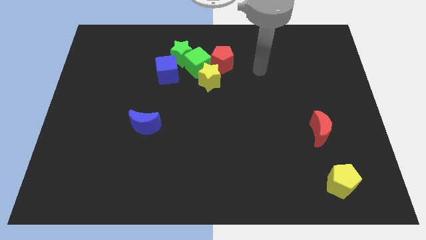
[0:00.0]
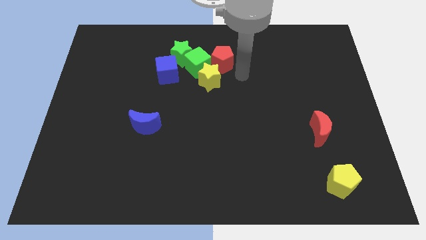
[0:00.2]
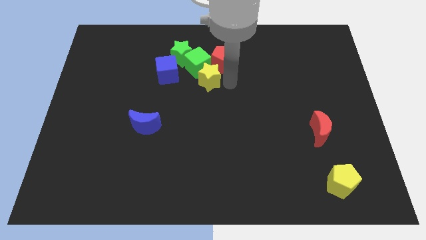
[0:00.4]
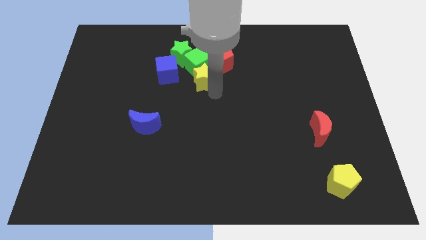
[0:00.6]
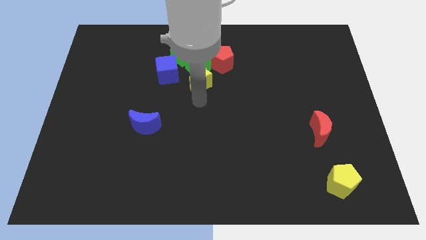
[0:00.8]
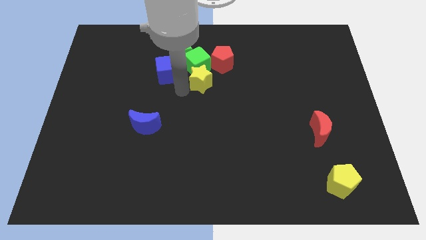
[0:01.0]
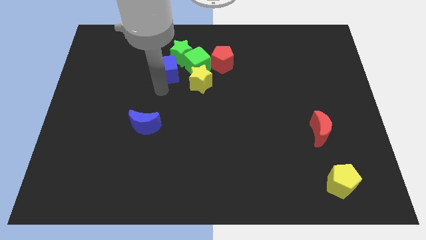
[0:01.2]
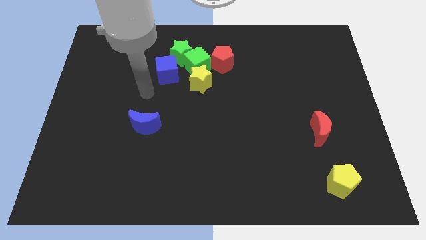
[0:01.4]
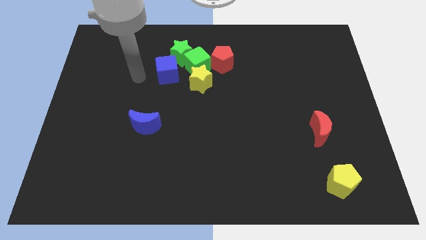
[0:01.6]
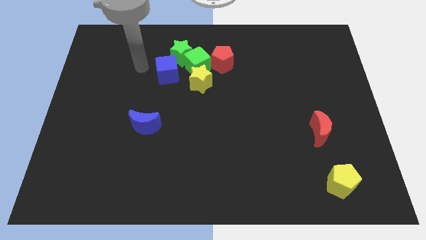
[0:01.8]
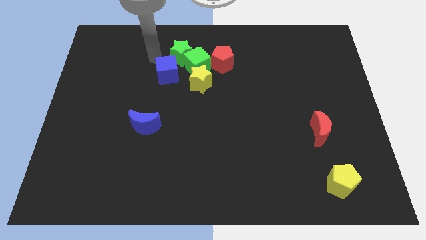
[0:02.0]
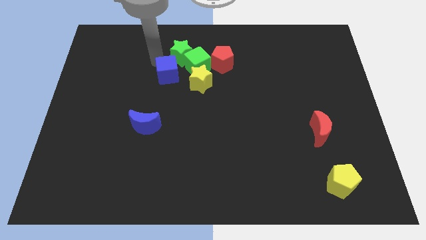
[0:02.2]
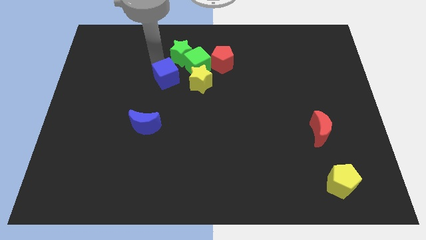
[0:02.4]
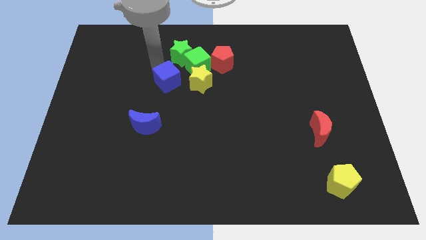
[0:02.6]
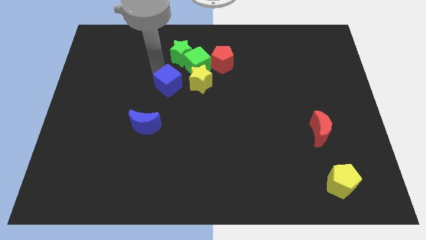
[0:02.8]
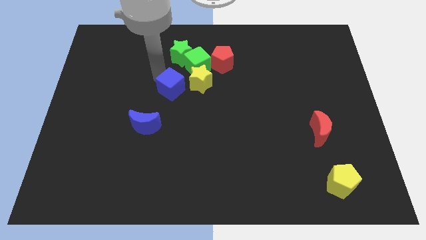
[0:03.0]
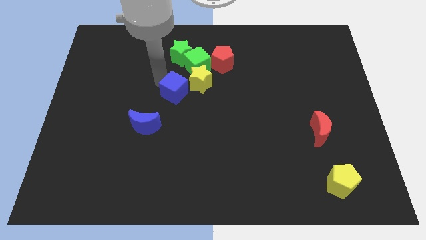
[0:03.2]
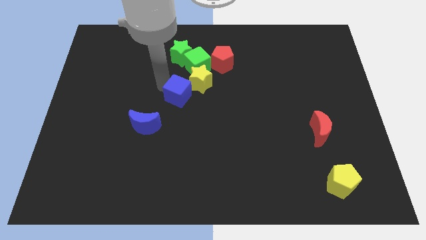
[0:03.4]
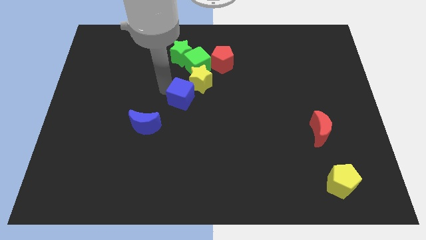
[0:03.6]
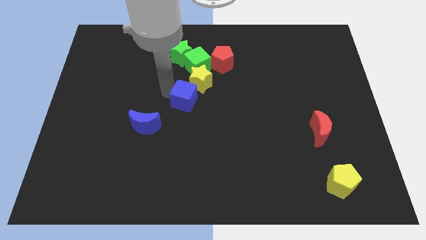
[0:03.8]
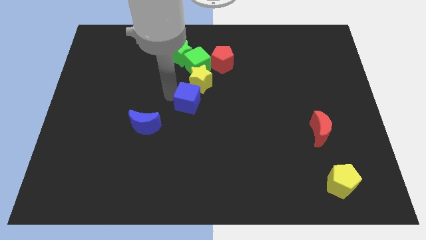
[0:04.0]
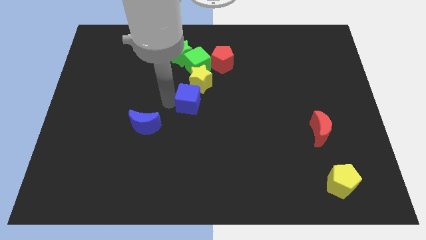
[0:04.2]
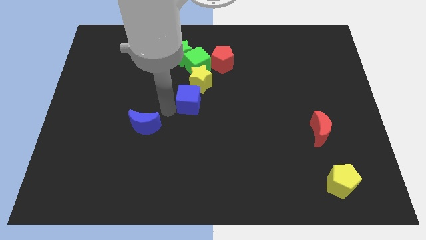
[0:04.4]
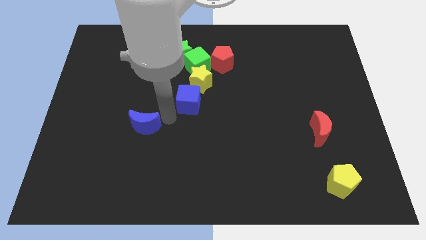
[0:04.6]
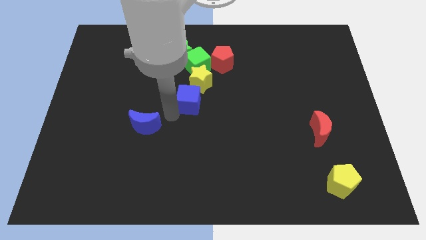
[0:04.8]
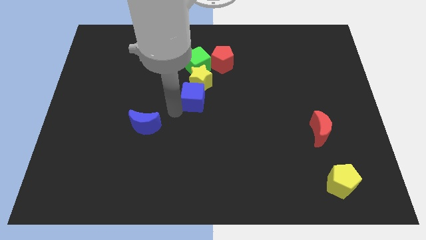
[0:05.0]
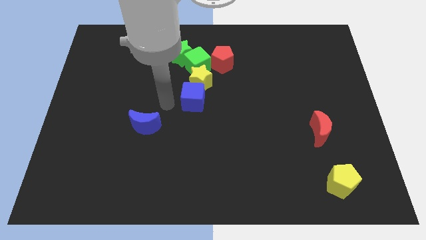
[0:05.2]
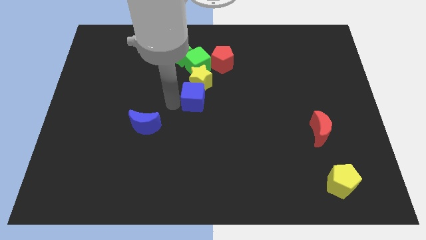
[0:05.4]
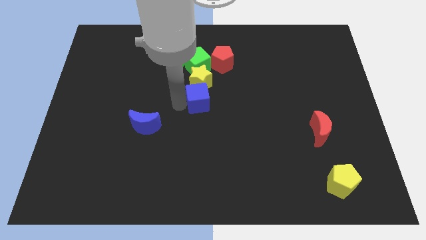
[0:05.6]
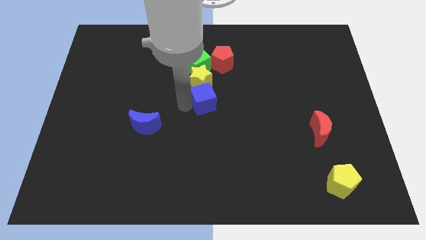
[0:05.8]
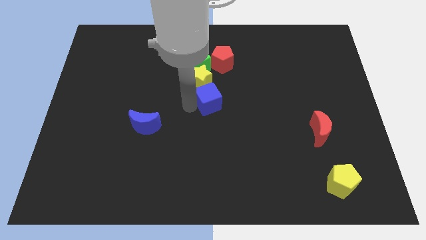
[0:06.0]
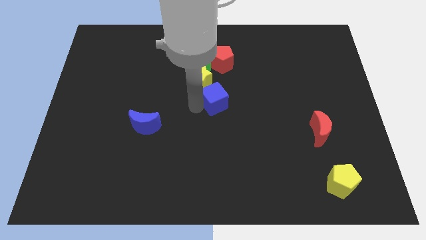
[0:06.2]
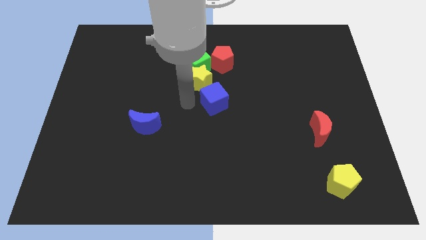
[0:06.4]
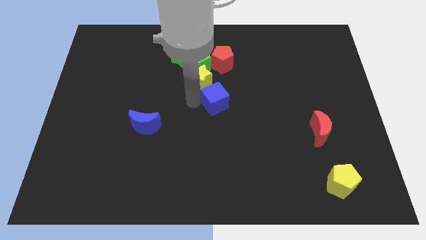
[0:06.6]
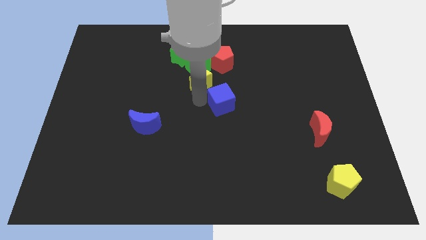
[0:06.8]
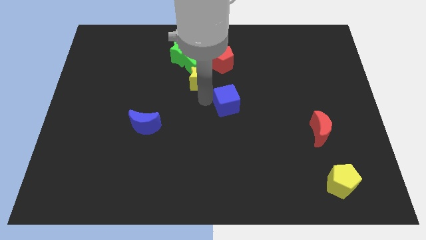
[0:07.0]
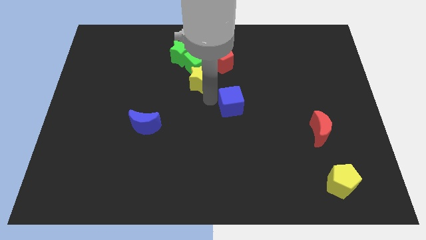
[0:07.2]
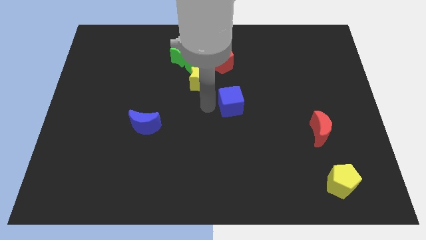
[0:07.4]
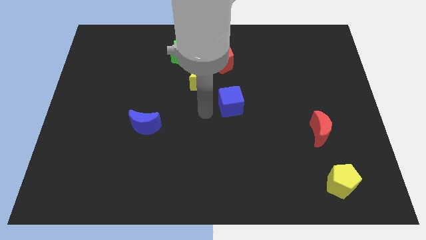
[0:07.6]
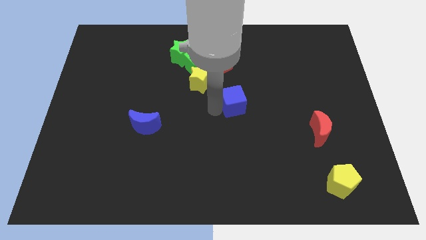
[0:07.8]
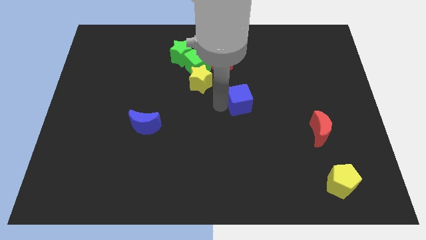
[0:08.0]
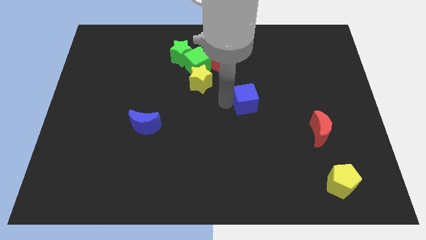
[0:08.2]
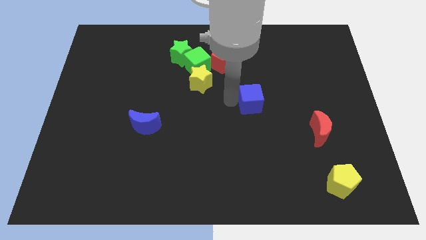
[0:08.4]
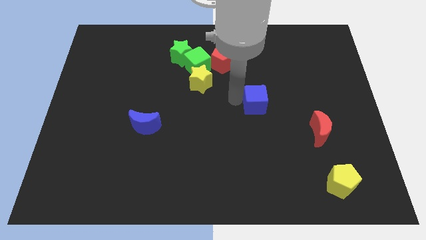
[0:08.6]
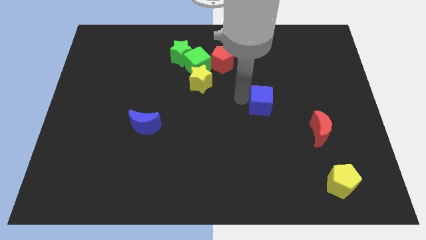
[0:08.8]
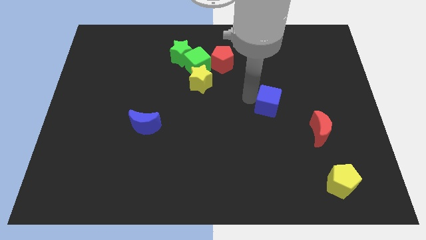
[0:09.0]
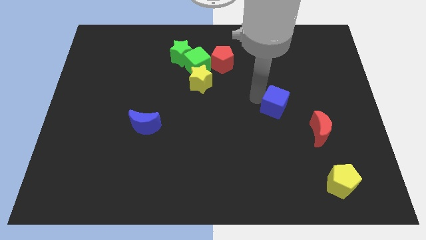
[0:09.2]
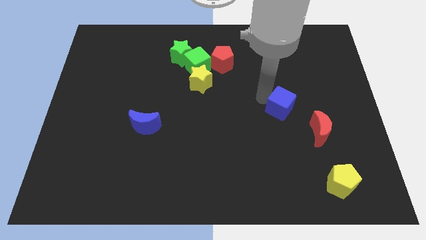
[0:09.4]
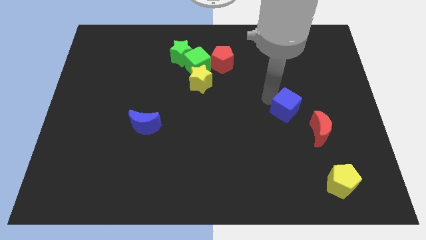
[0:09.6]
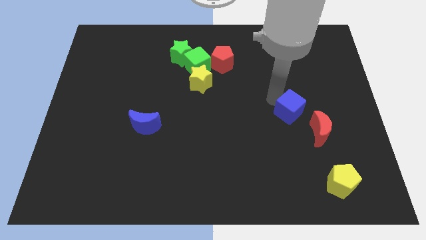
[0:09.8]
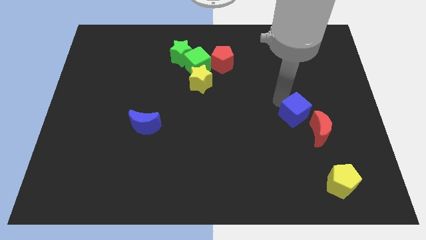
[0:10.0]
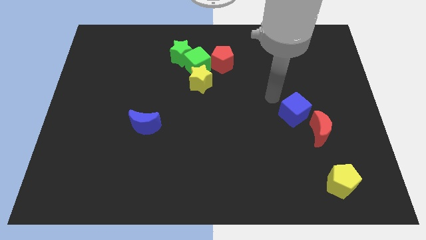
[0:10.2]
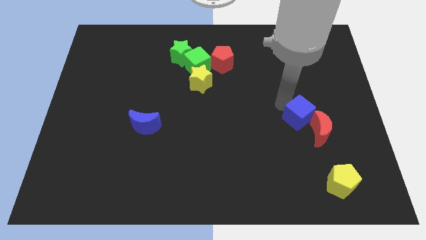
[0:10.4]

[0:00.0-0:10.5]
push the blue cube to the red moon

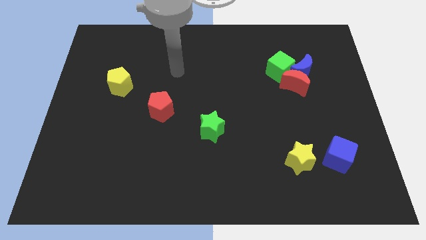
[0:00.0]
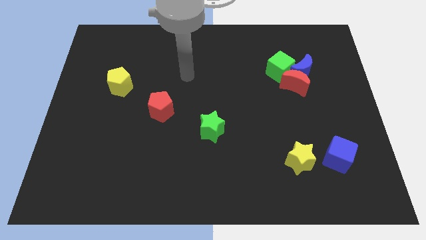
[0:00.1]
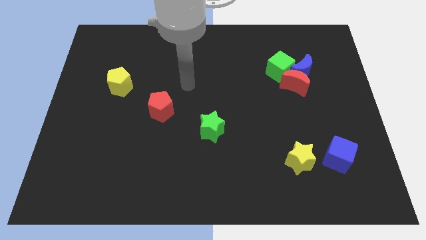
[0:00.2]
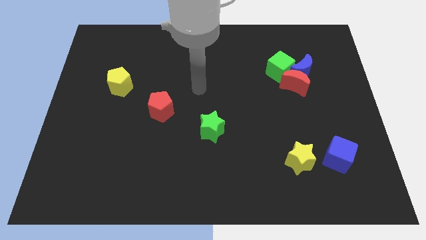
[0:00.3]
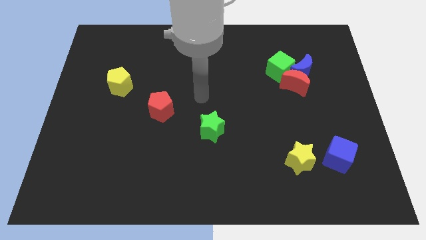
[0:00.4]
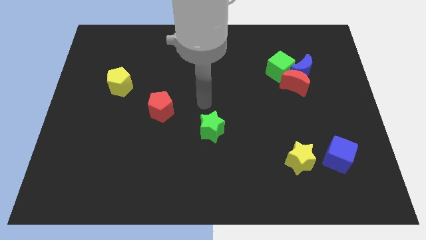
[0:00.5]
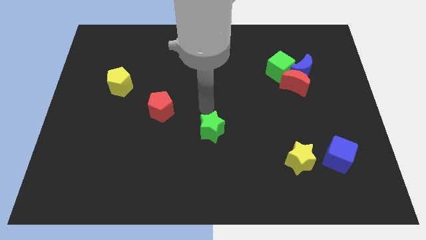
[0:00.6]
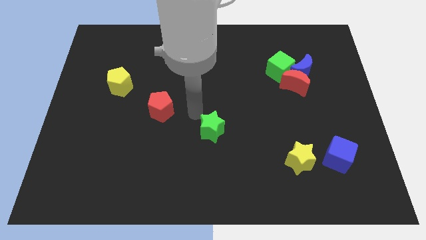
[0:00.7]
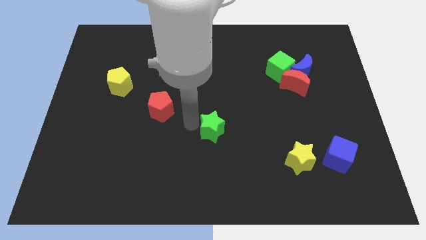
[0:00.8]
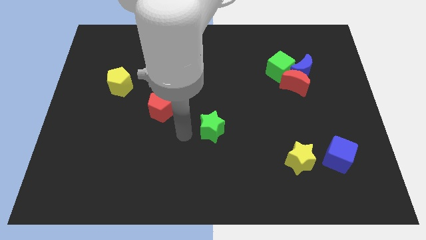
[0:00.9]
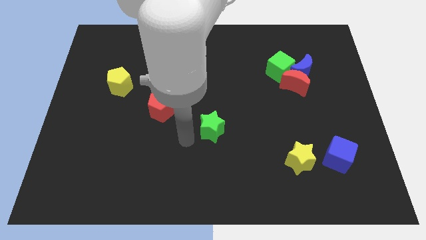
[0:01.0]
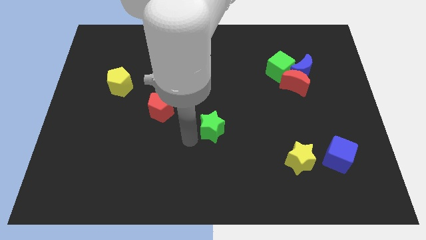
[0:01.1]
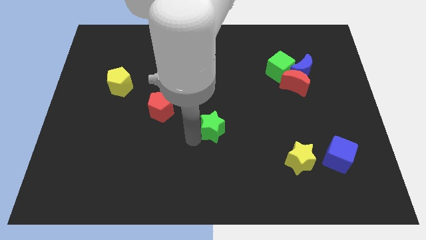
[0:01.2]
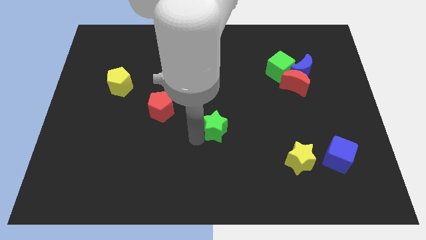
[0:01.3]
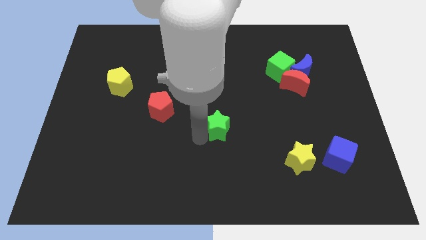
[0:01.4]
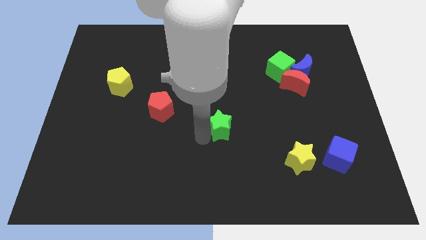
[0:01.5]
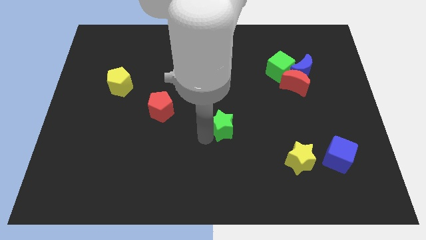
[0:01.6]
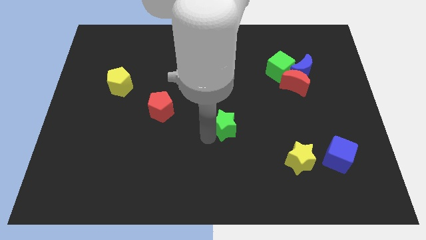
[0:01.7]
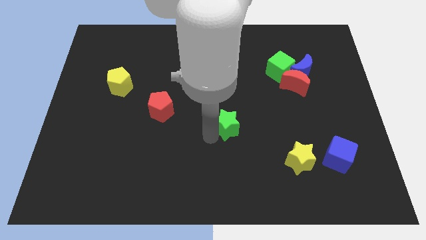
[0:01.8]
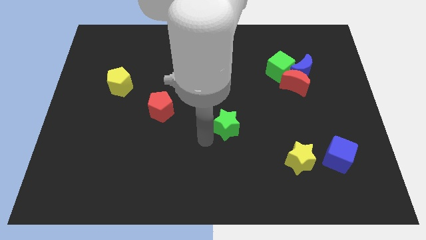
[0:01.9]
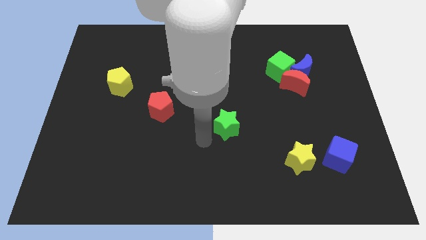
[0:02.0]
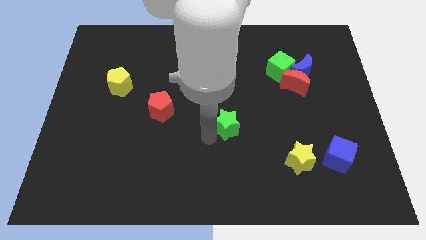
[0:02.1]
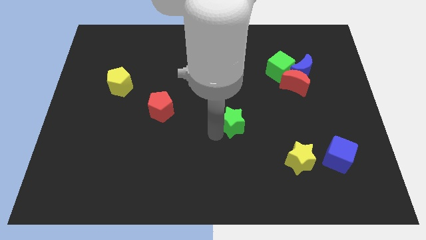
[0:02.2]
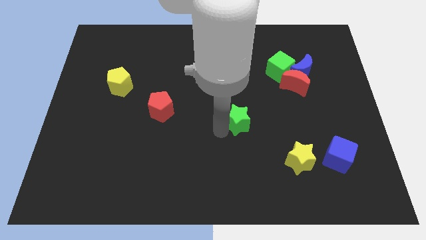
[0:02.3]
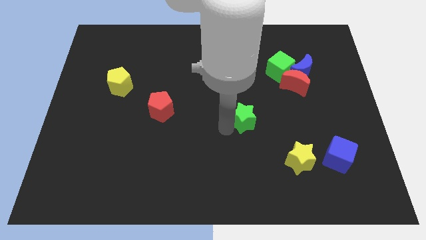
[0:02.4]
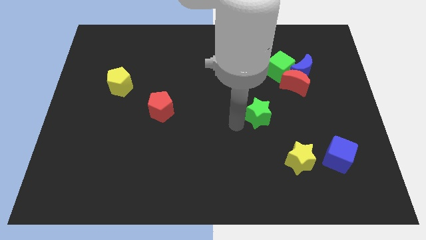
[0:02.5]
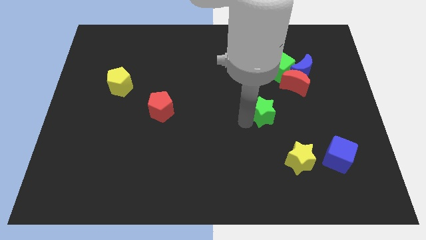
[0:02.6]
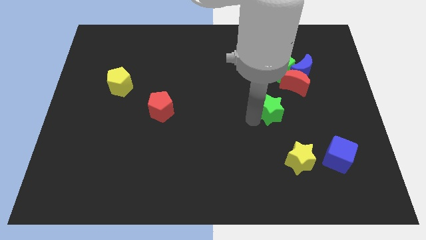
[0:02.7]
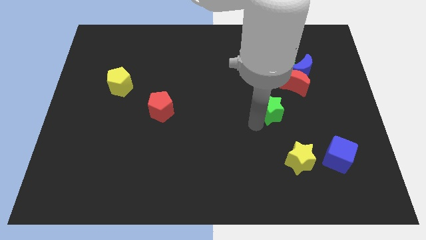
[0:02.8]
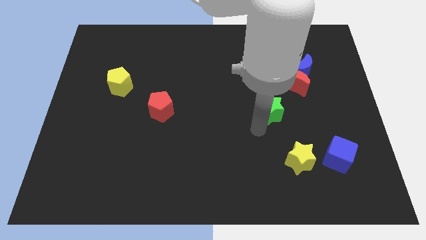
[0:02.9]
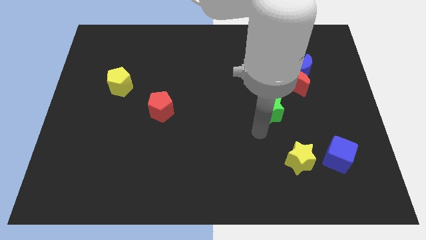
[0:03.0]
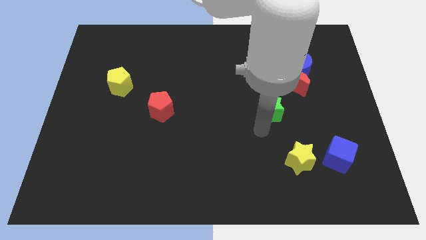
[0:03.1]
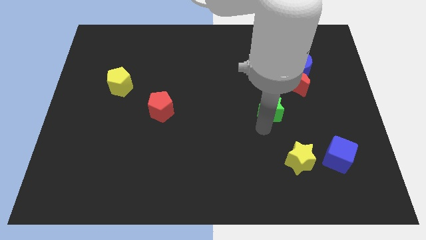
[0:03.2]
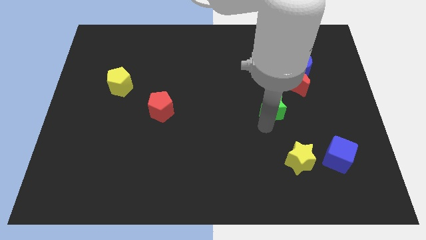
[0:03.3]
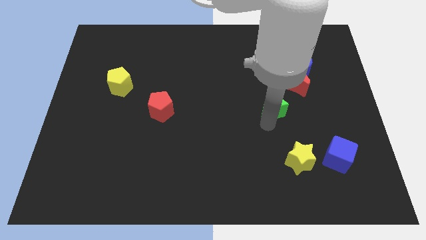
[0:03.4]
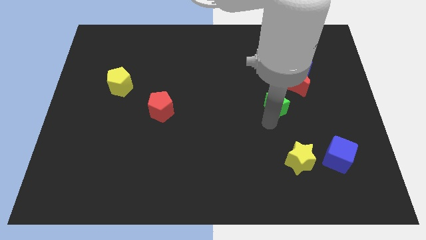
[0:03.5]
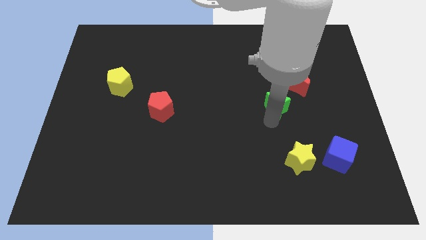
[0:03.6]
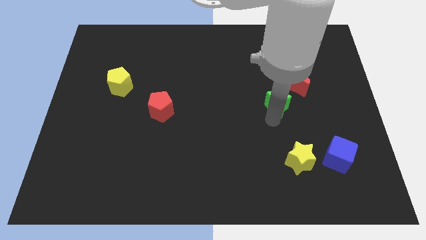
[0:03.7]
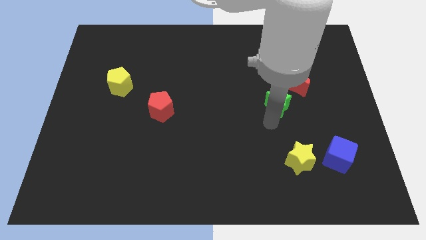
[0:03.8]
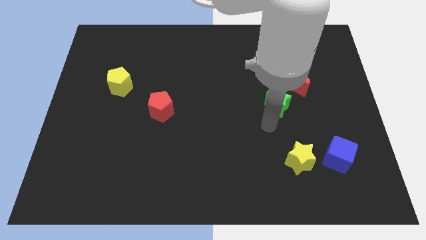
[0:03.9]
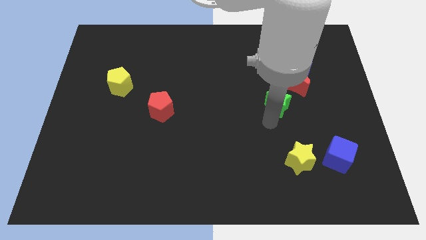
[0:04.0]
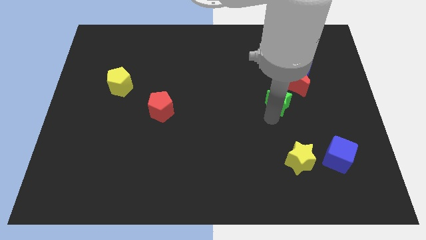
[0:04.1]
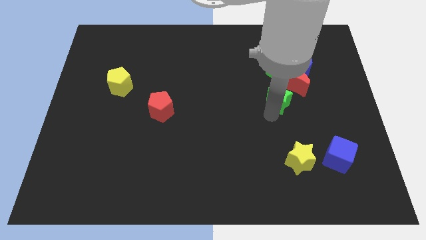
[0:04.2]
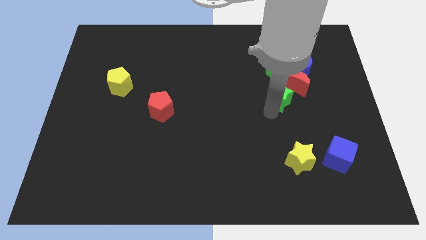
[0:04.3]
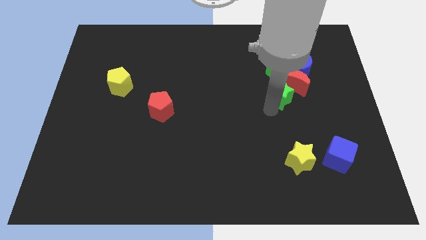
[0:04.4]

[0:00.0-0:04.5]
put the green star towards the red moon
